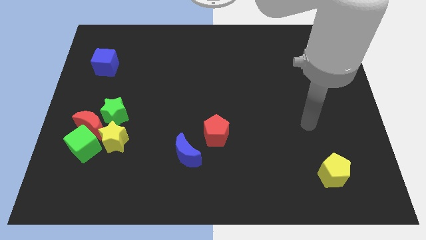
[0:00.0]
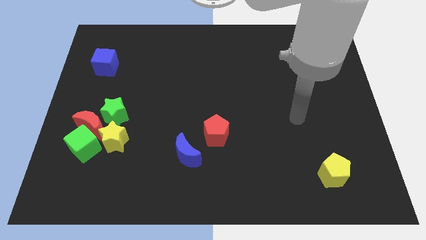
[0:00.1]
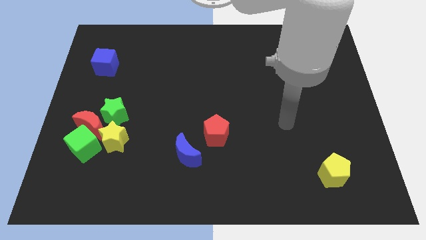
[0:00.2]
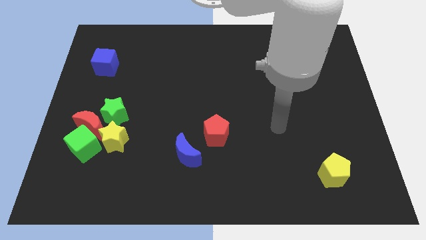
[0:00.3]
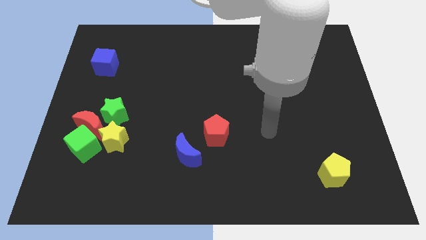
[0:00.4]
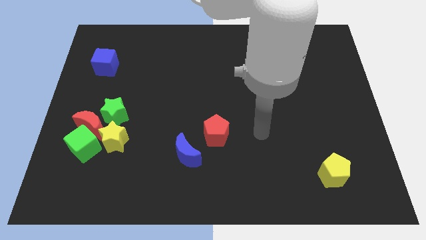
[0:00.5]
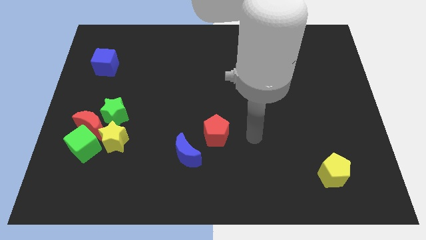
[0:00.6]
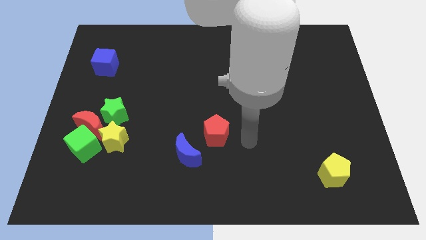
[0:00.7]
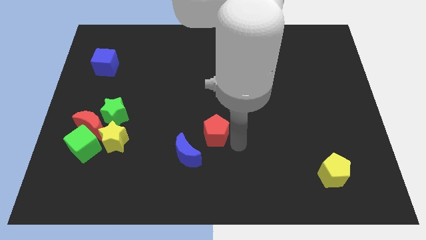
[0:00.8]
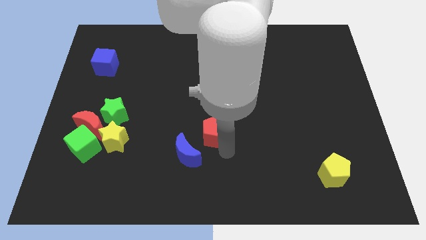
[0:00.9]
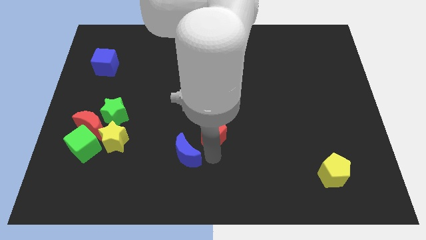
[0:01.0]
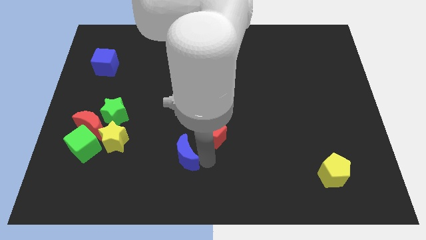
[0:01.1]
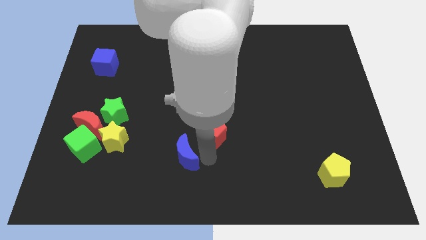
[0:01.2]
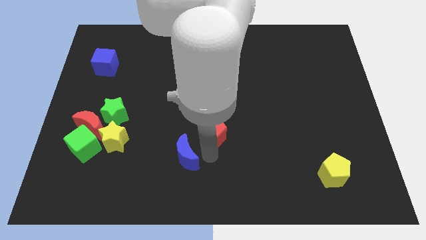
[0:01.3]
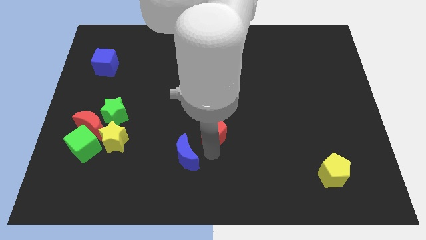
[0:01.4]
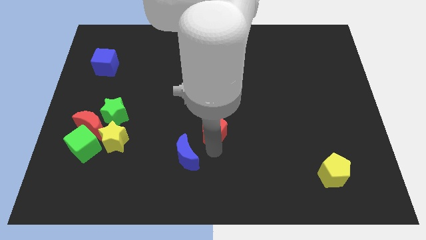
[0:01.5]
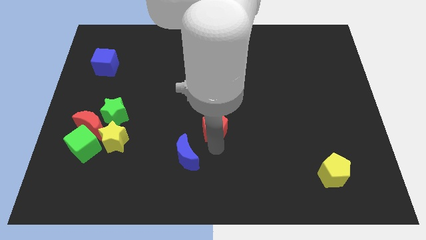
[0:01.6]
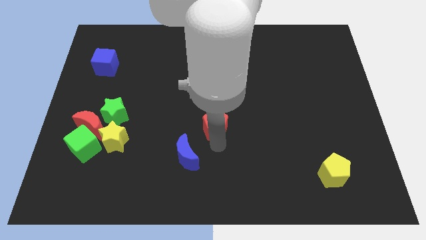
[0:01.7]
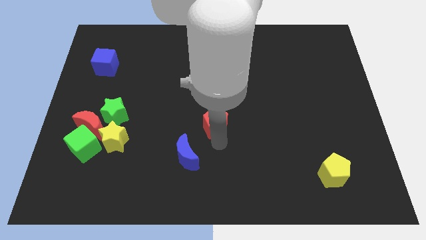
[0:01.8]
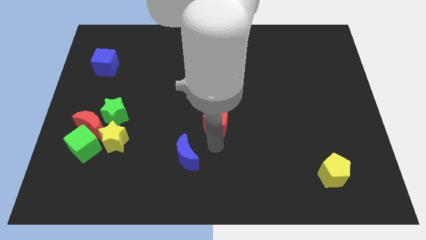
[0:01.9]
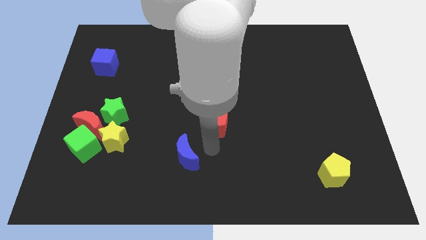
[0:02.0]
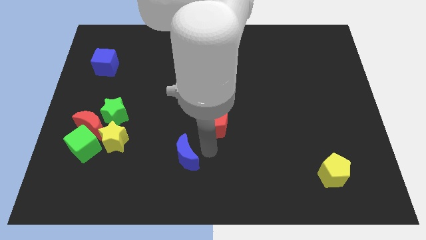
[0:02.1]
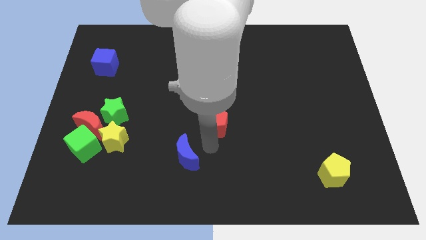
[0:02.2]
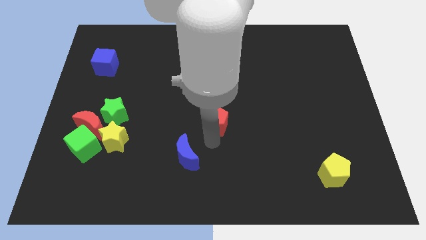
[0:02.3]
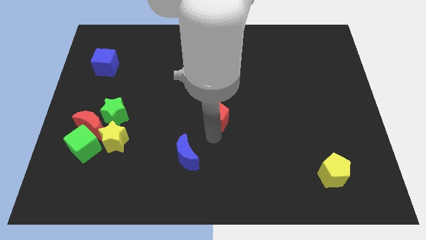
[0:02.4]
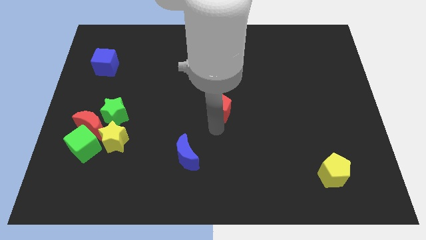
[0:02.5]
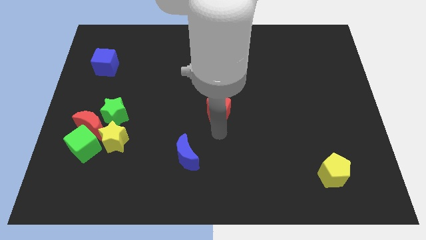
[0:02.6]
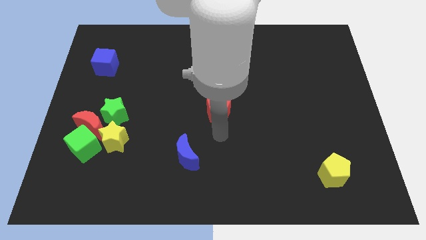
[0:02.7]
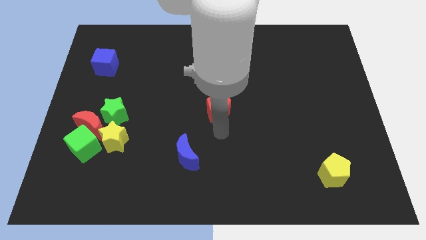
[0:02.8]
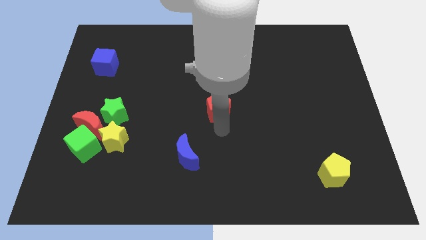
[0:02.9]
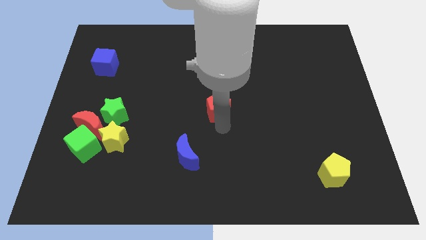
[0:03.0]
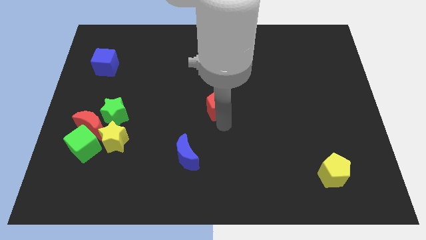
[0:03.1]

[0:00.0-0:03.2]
move the red pentagon upwards a little

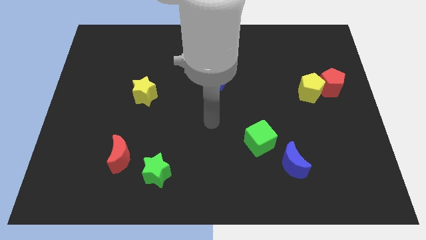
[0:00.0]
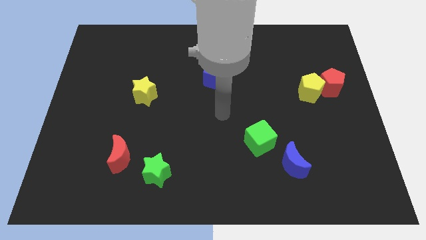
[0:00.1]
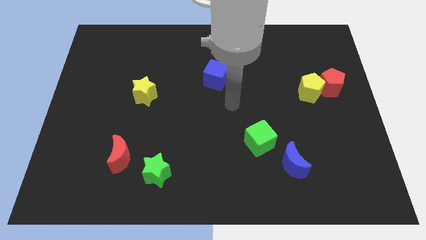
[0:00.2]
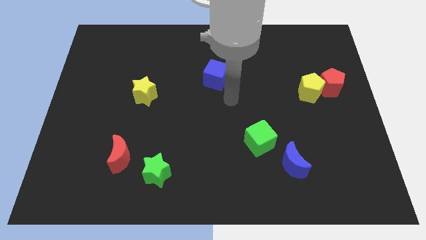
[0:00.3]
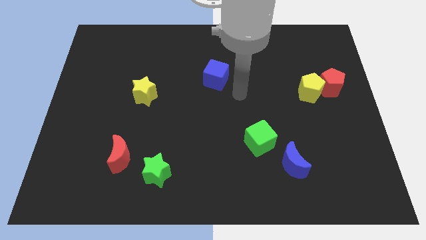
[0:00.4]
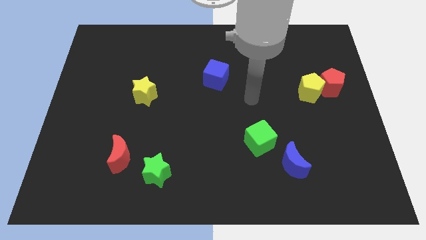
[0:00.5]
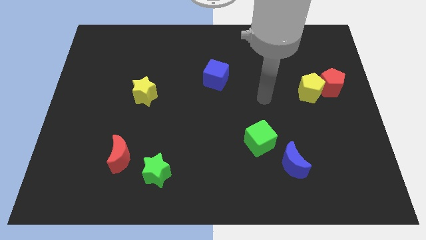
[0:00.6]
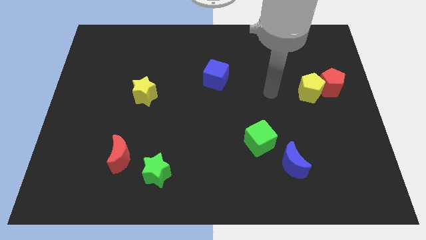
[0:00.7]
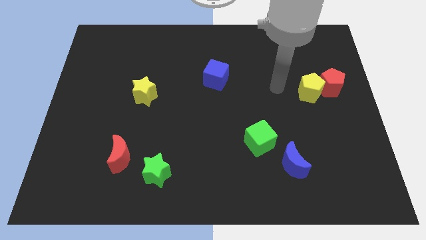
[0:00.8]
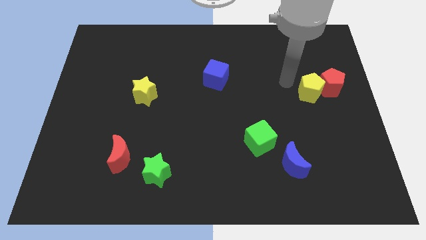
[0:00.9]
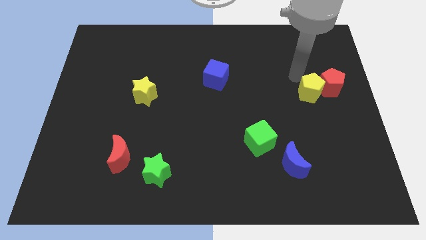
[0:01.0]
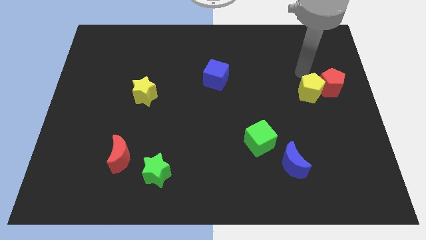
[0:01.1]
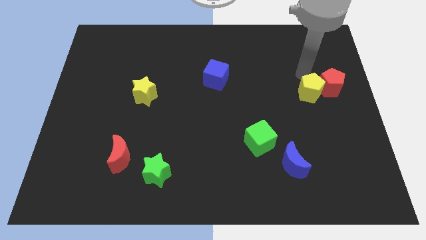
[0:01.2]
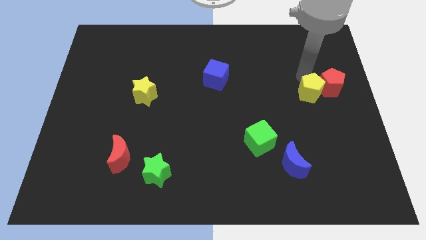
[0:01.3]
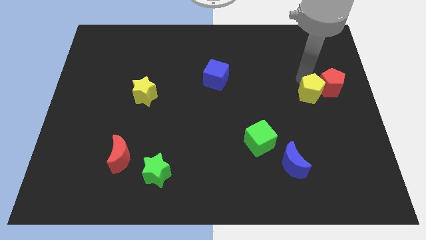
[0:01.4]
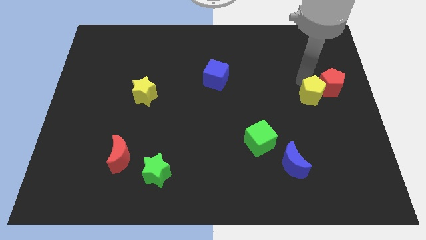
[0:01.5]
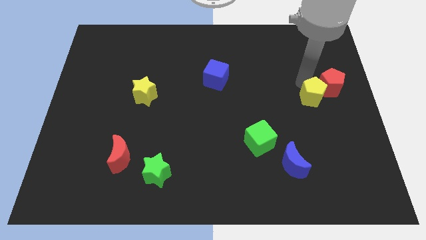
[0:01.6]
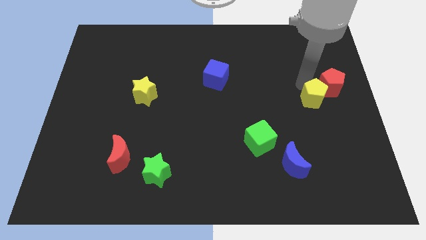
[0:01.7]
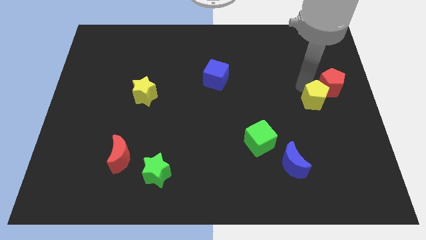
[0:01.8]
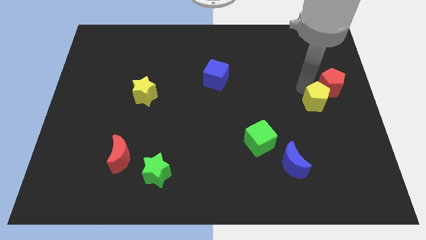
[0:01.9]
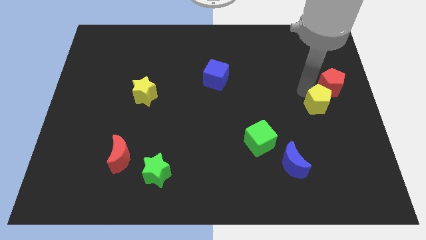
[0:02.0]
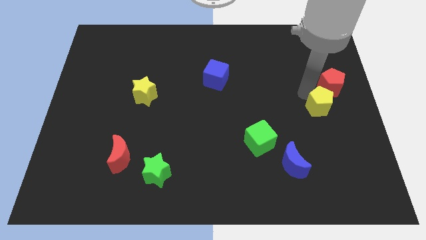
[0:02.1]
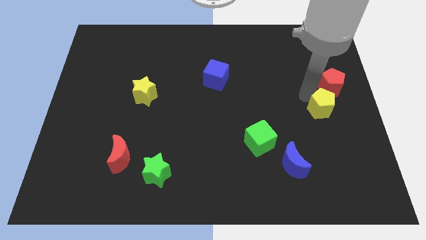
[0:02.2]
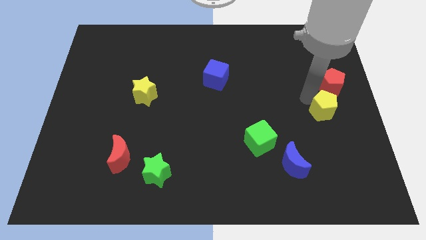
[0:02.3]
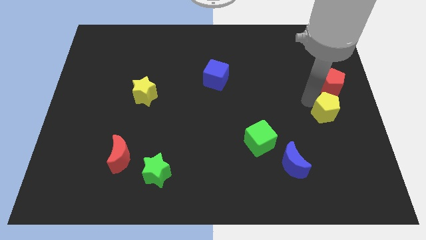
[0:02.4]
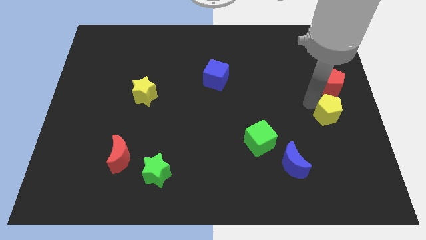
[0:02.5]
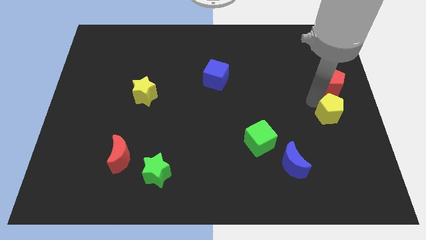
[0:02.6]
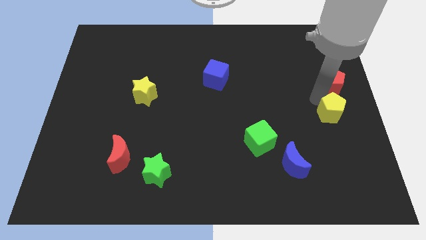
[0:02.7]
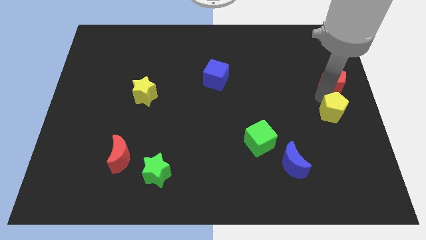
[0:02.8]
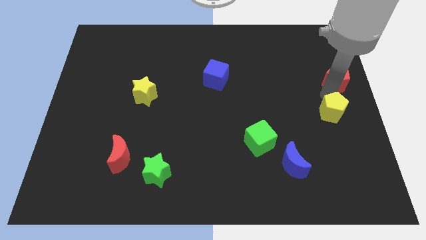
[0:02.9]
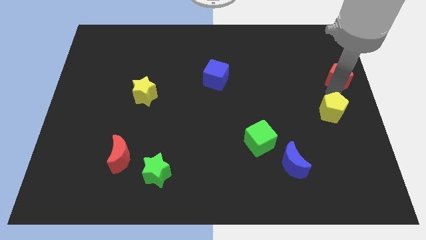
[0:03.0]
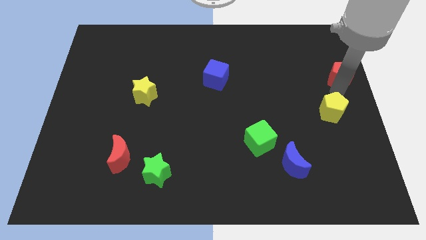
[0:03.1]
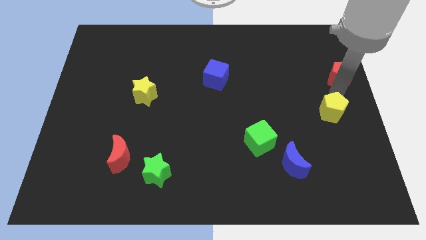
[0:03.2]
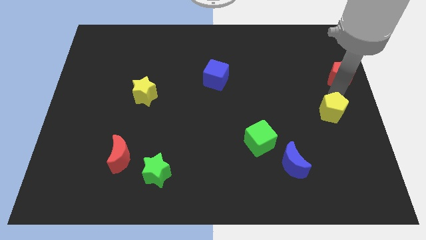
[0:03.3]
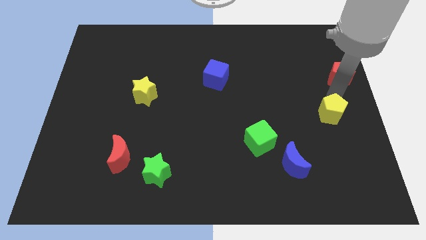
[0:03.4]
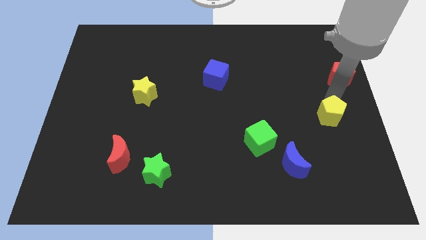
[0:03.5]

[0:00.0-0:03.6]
push the yellow pentagon a little downwards

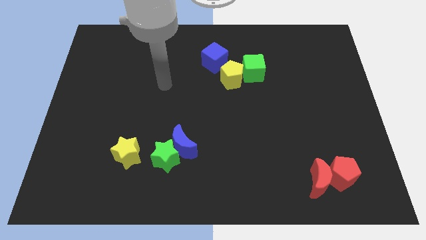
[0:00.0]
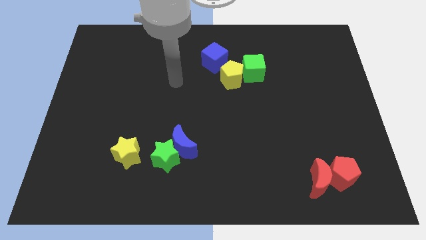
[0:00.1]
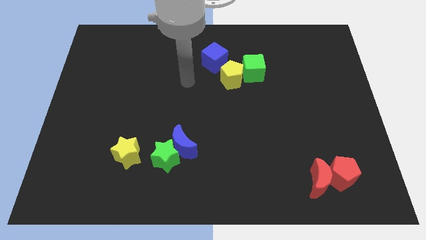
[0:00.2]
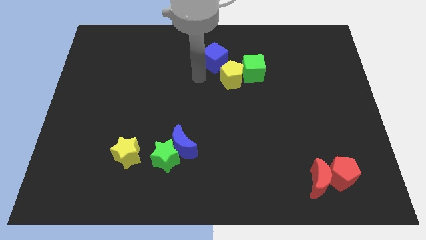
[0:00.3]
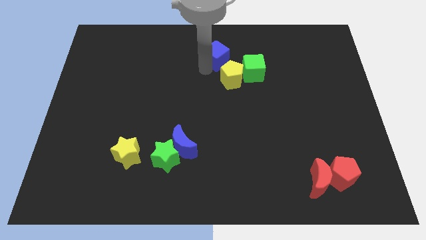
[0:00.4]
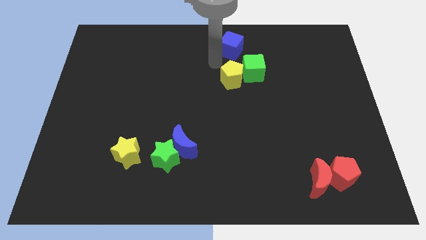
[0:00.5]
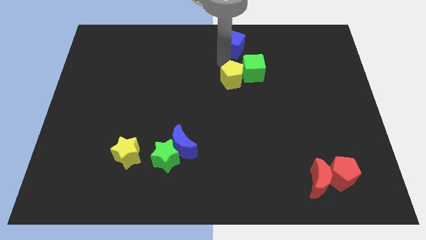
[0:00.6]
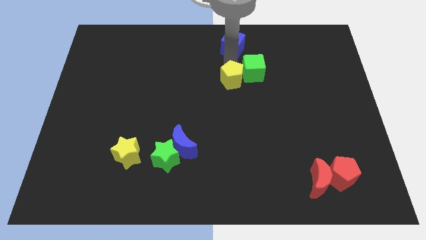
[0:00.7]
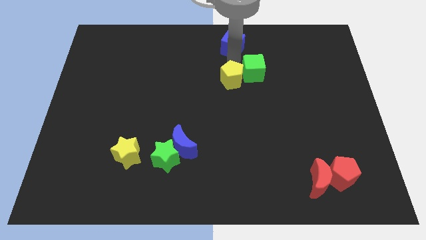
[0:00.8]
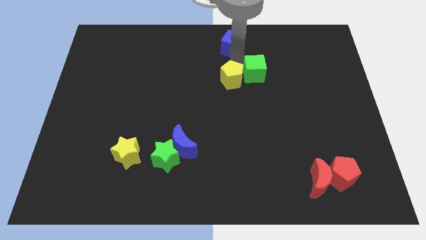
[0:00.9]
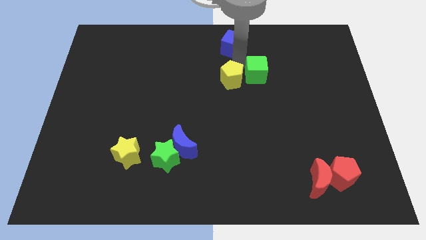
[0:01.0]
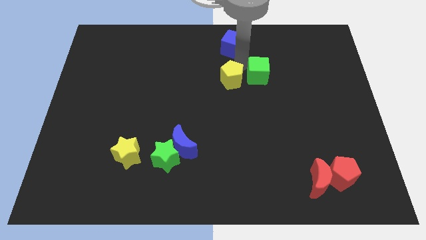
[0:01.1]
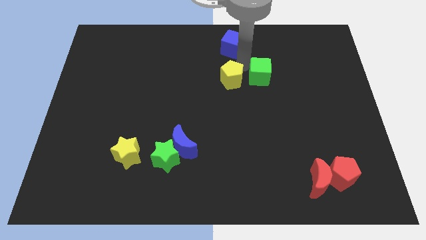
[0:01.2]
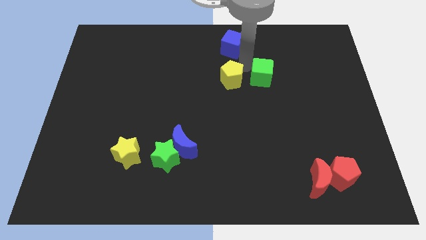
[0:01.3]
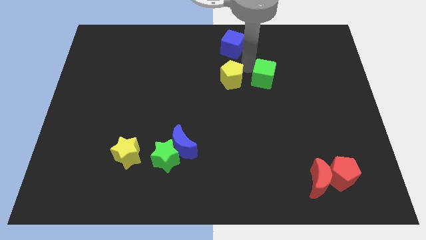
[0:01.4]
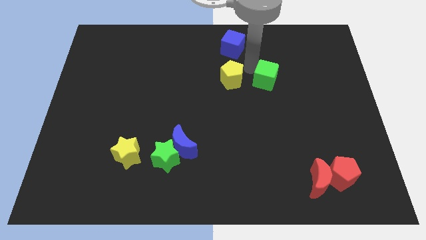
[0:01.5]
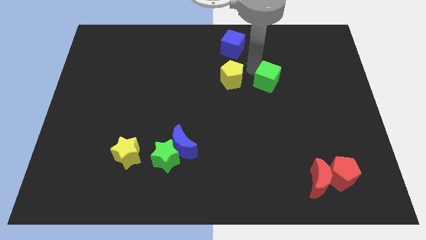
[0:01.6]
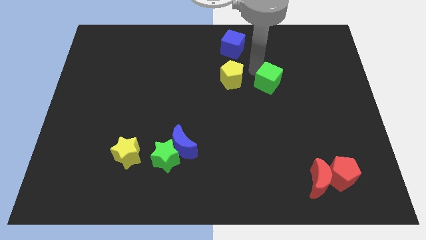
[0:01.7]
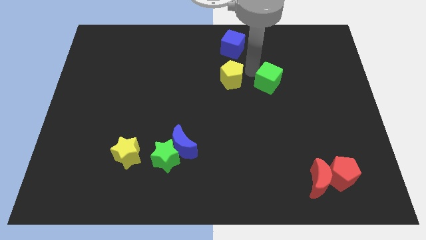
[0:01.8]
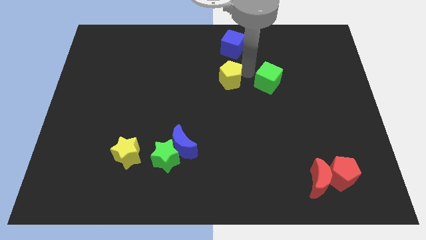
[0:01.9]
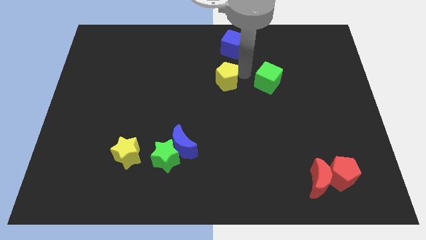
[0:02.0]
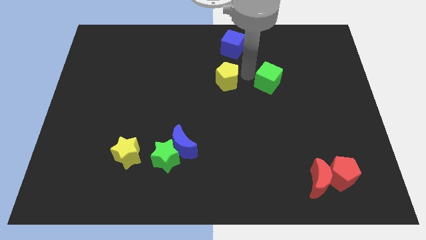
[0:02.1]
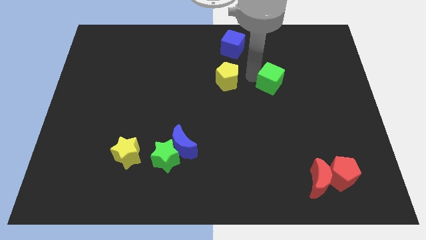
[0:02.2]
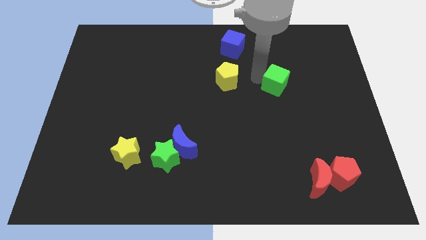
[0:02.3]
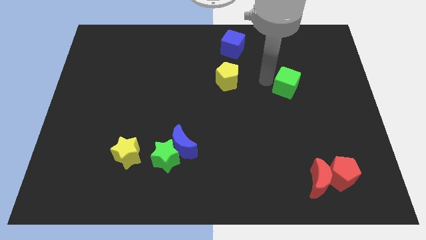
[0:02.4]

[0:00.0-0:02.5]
slide the green cube diagonally down and right somewhat
